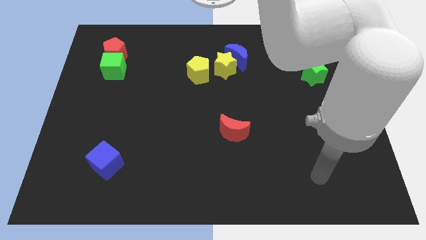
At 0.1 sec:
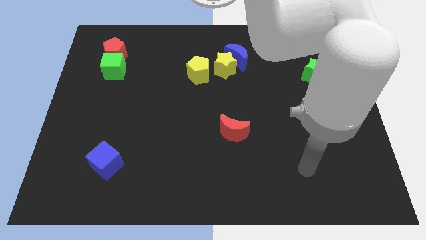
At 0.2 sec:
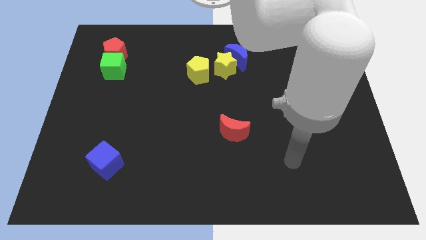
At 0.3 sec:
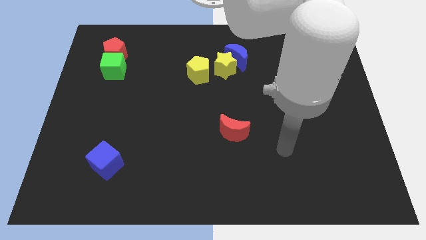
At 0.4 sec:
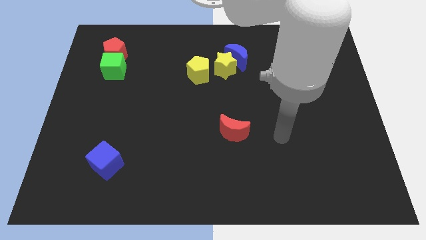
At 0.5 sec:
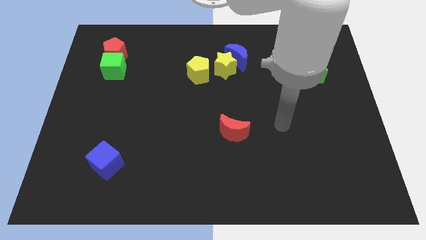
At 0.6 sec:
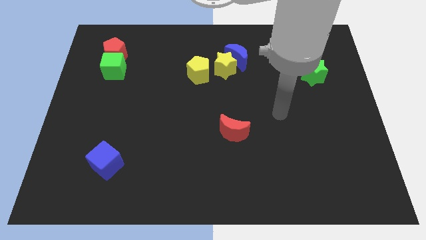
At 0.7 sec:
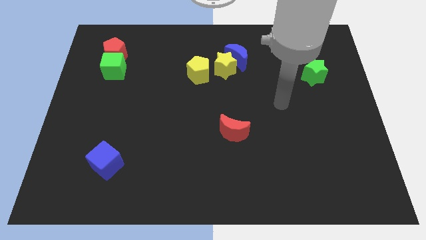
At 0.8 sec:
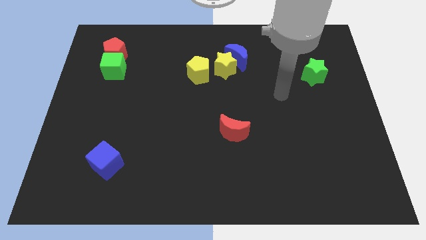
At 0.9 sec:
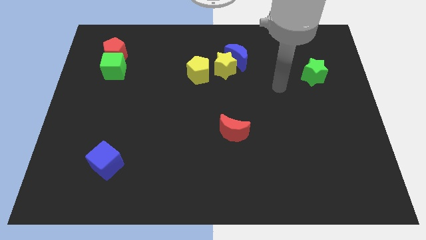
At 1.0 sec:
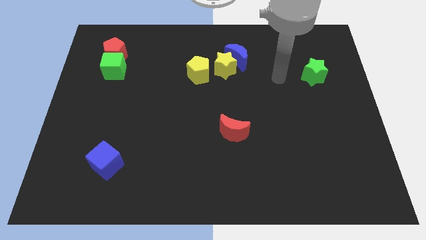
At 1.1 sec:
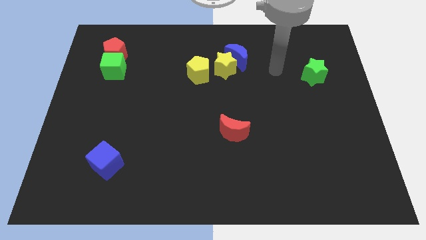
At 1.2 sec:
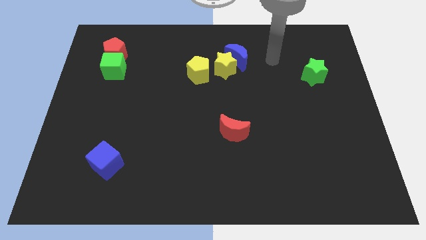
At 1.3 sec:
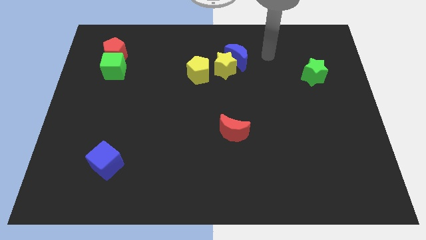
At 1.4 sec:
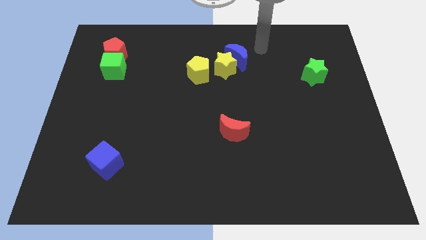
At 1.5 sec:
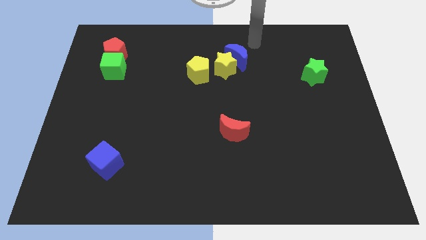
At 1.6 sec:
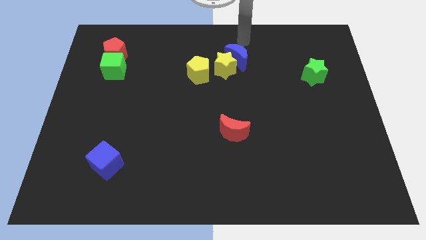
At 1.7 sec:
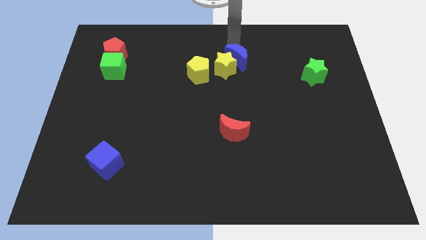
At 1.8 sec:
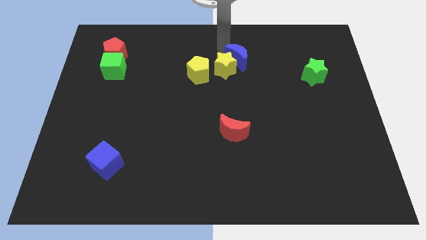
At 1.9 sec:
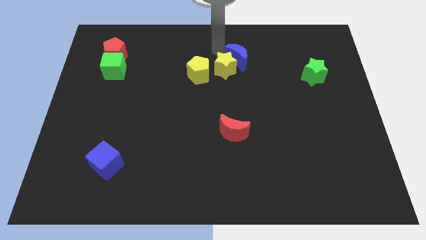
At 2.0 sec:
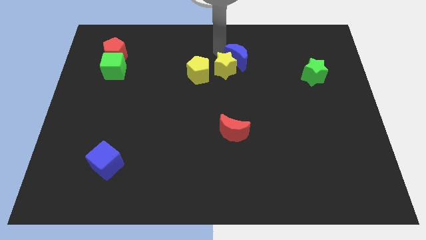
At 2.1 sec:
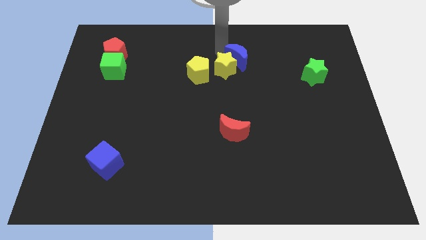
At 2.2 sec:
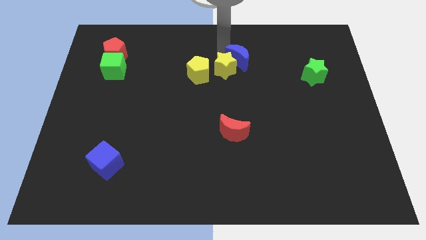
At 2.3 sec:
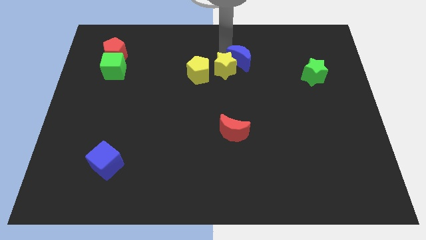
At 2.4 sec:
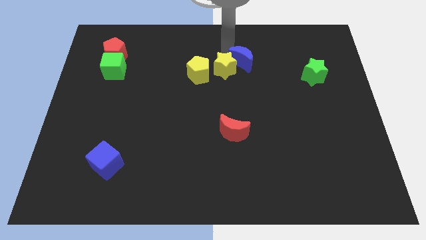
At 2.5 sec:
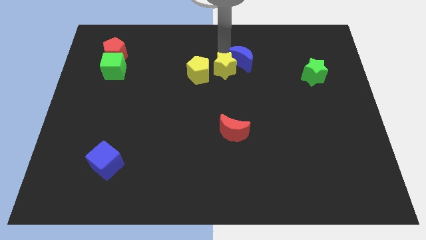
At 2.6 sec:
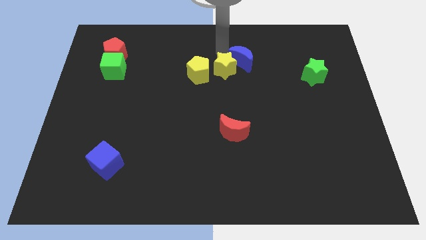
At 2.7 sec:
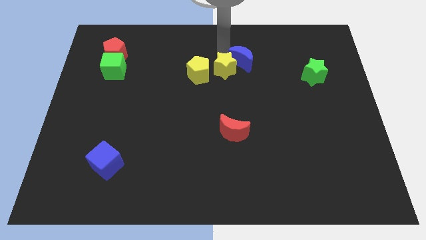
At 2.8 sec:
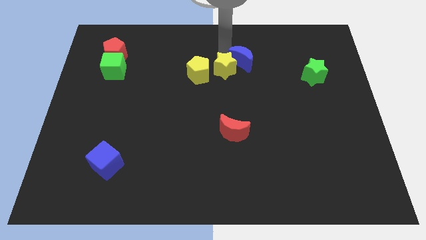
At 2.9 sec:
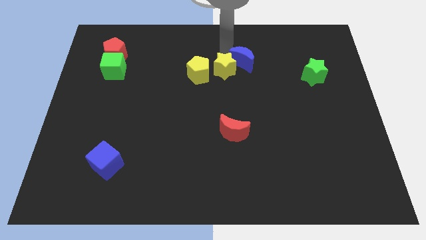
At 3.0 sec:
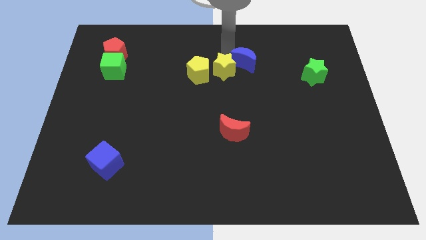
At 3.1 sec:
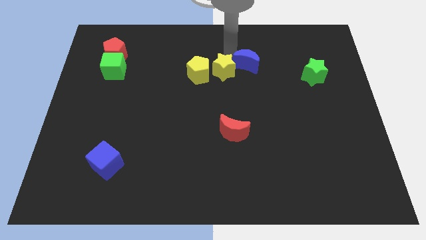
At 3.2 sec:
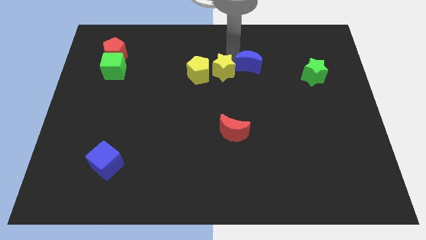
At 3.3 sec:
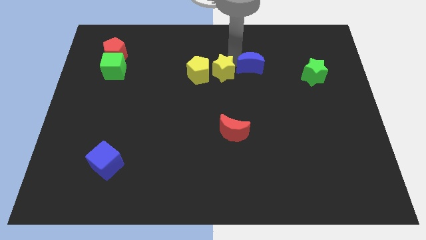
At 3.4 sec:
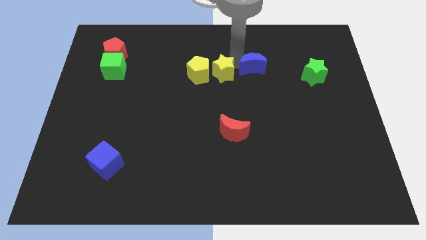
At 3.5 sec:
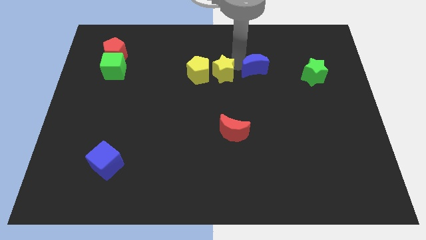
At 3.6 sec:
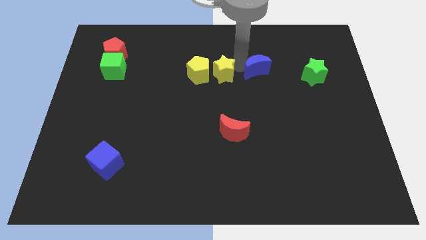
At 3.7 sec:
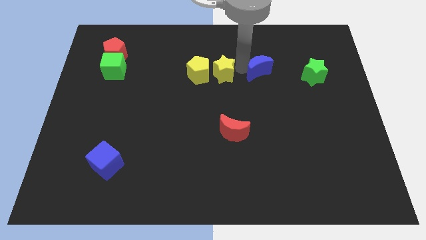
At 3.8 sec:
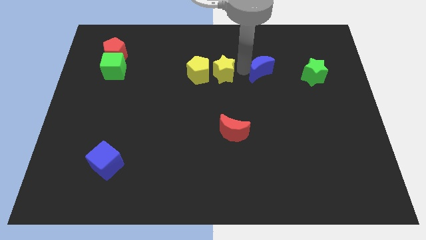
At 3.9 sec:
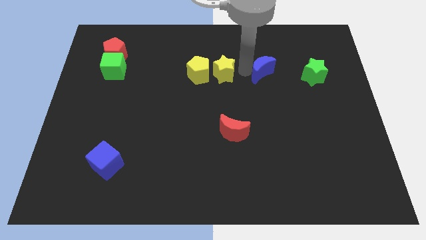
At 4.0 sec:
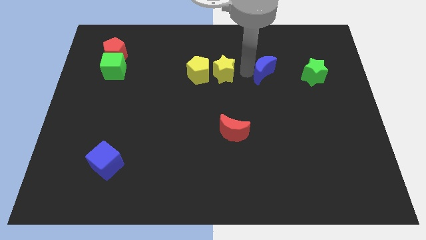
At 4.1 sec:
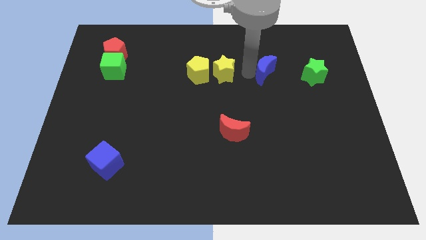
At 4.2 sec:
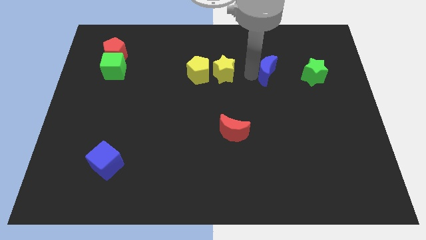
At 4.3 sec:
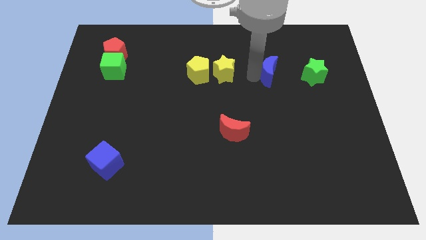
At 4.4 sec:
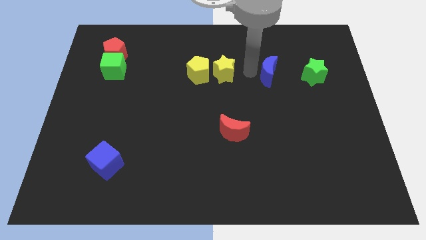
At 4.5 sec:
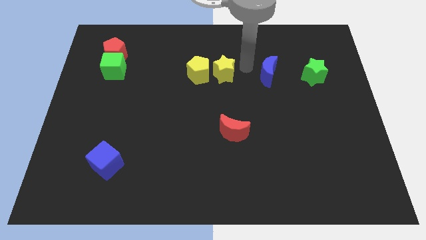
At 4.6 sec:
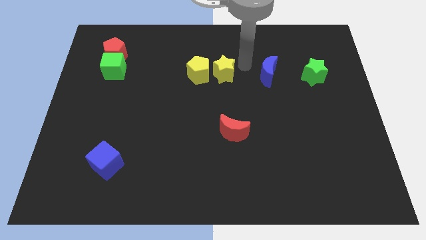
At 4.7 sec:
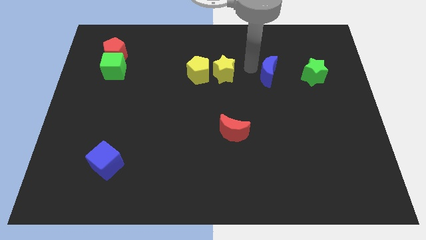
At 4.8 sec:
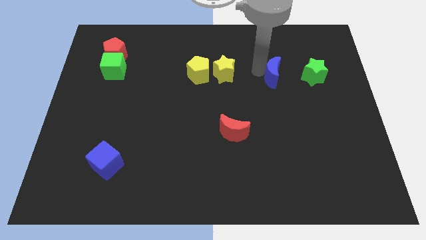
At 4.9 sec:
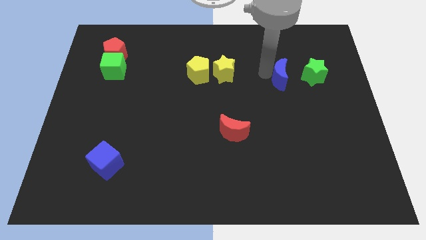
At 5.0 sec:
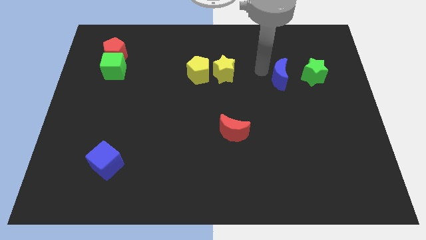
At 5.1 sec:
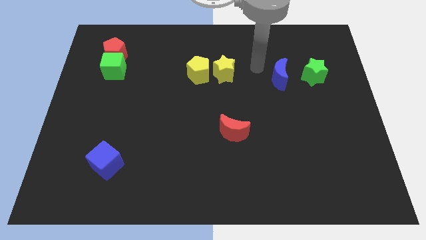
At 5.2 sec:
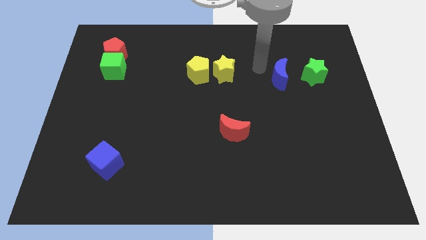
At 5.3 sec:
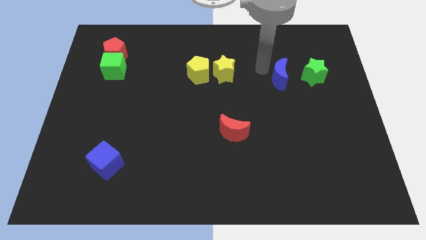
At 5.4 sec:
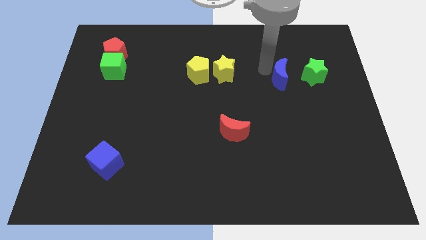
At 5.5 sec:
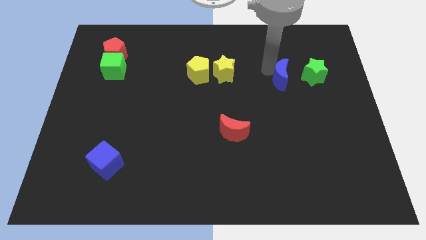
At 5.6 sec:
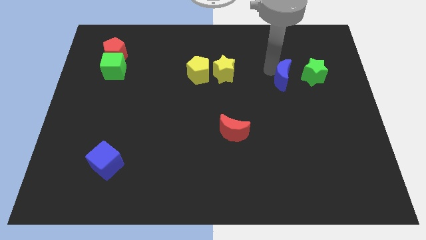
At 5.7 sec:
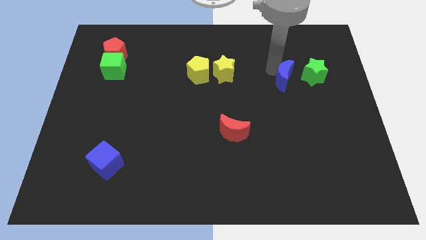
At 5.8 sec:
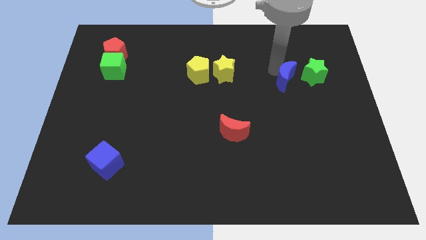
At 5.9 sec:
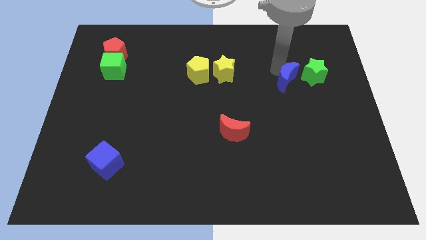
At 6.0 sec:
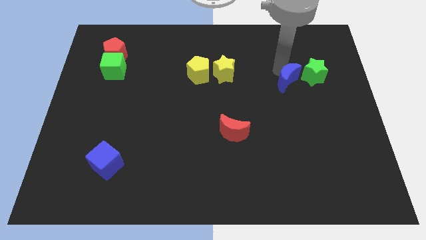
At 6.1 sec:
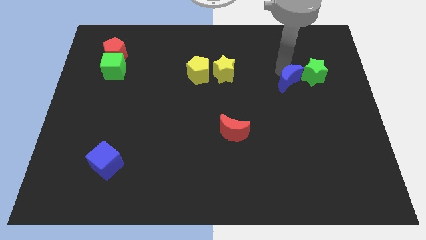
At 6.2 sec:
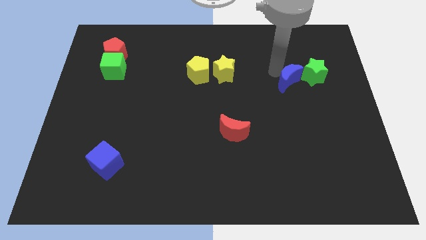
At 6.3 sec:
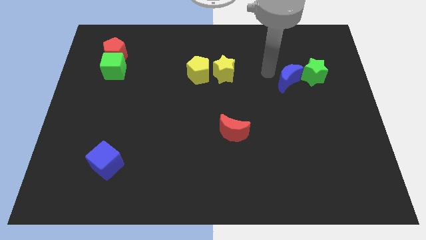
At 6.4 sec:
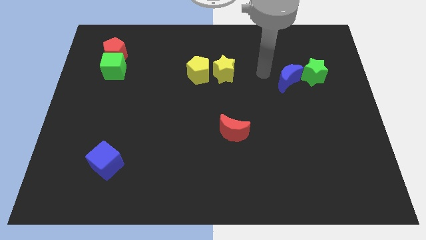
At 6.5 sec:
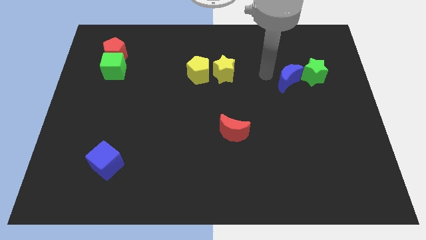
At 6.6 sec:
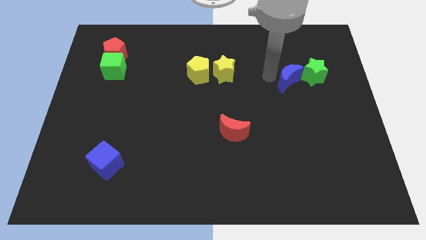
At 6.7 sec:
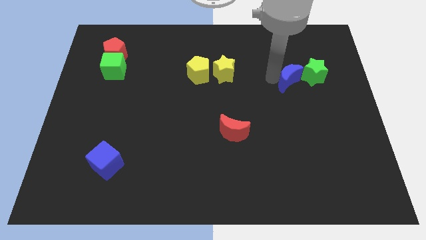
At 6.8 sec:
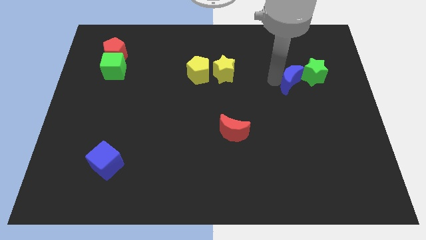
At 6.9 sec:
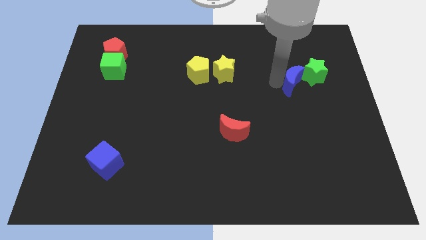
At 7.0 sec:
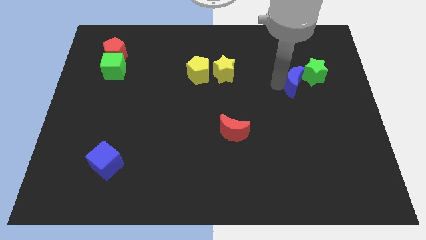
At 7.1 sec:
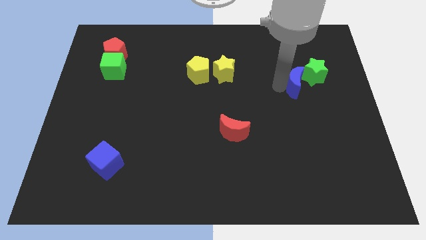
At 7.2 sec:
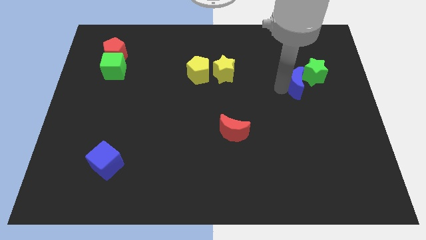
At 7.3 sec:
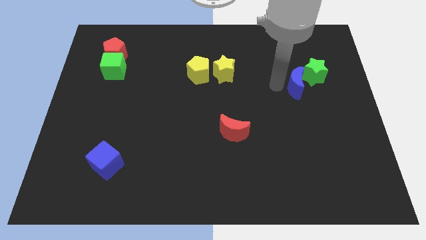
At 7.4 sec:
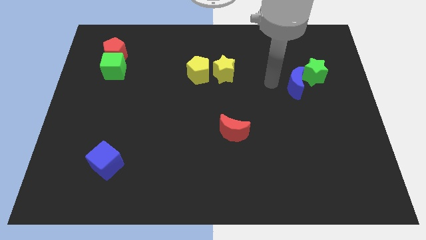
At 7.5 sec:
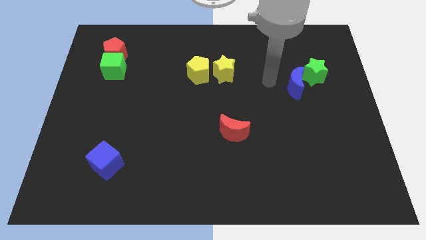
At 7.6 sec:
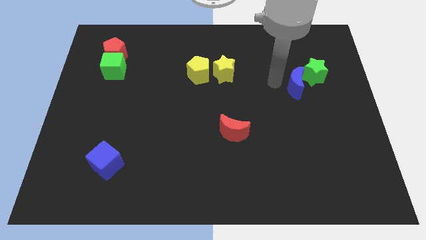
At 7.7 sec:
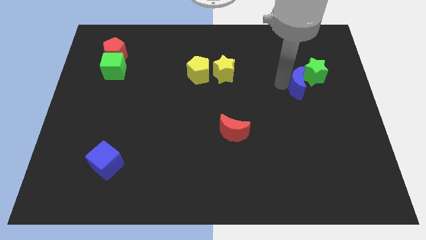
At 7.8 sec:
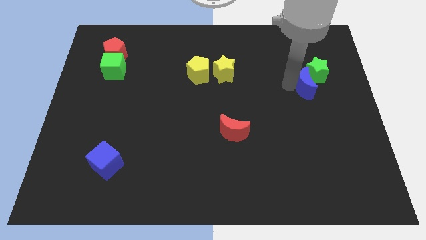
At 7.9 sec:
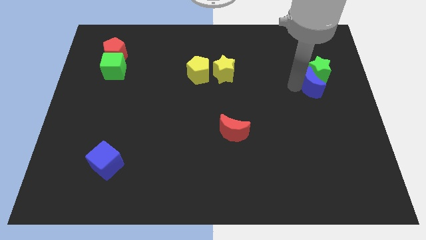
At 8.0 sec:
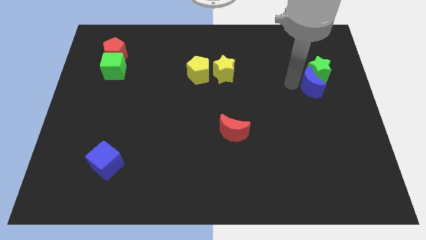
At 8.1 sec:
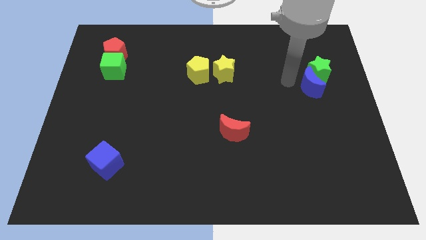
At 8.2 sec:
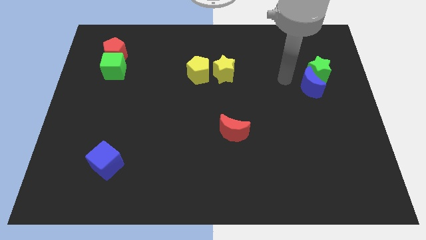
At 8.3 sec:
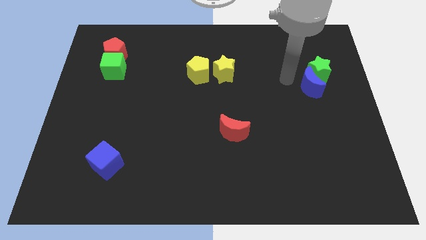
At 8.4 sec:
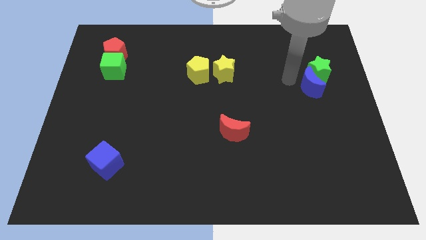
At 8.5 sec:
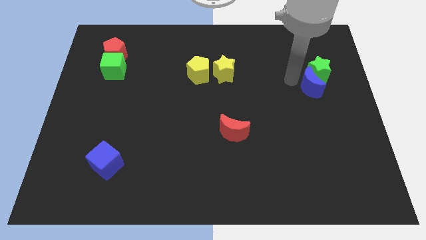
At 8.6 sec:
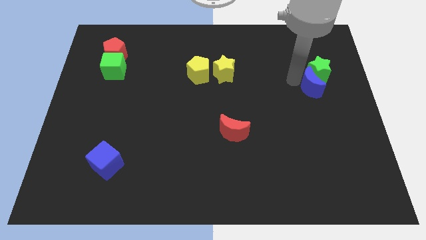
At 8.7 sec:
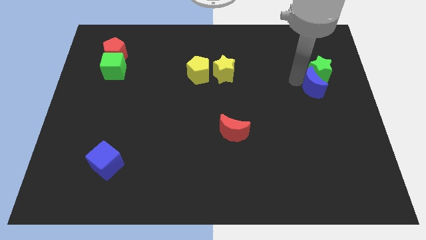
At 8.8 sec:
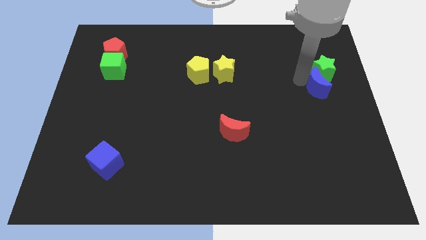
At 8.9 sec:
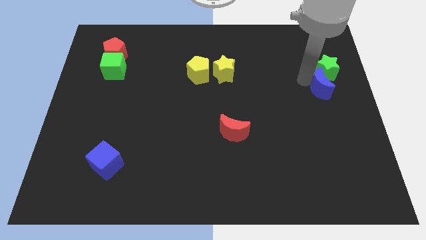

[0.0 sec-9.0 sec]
slide the blue moon to the center right
